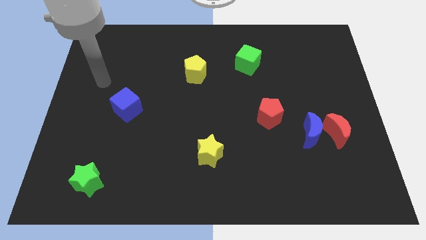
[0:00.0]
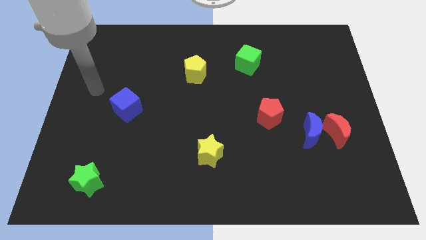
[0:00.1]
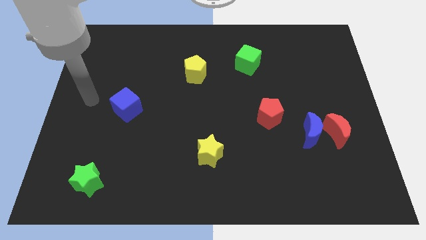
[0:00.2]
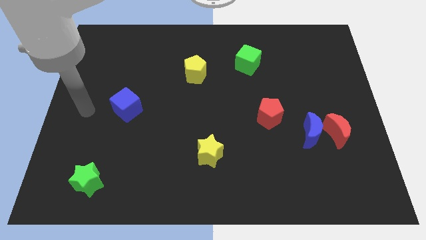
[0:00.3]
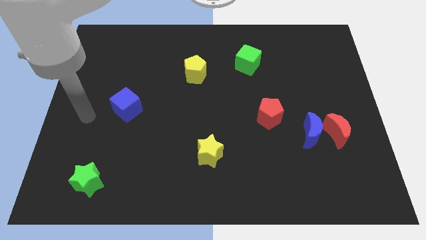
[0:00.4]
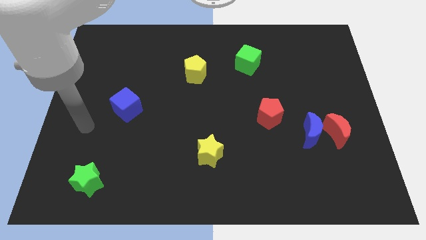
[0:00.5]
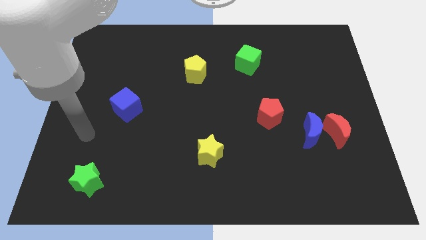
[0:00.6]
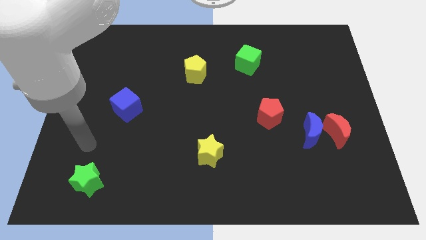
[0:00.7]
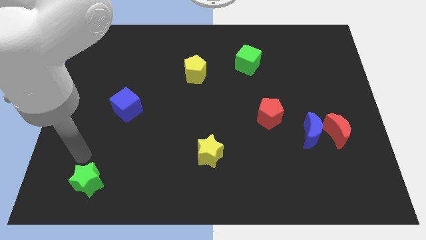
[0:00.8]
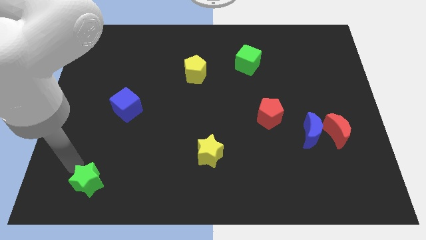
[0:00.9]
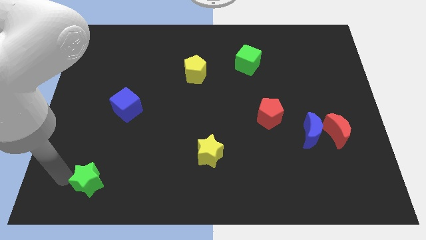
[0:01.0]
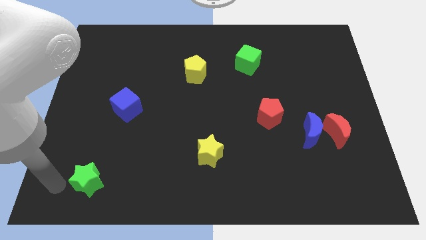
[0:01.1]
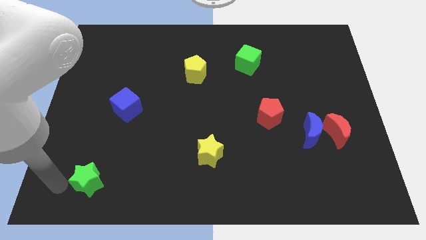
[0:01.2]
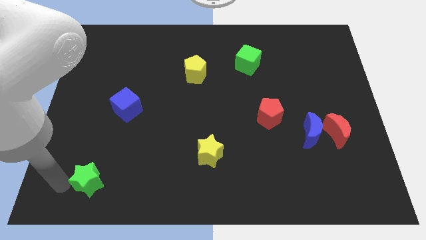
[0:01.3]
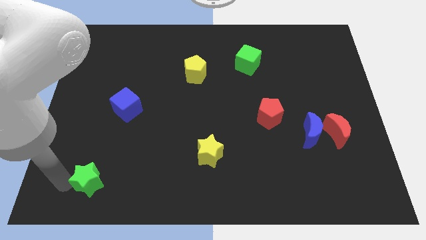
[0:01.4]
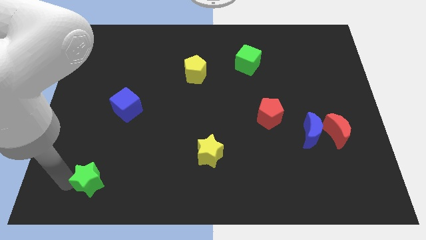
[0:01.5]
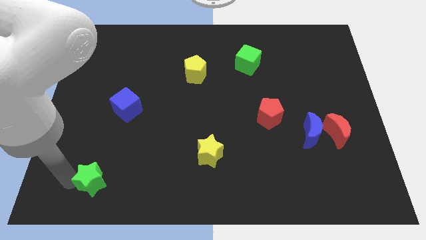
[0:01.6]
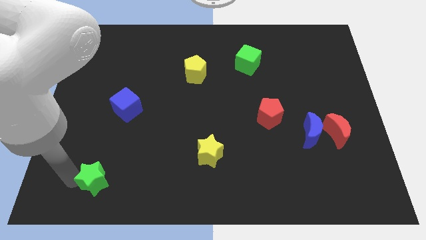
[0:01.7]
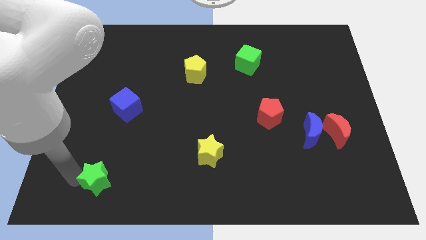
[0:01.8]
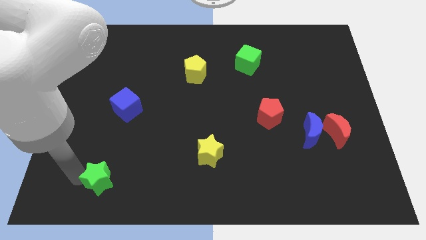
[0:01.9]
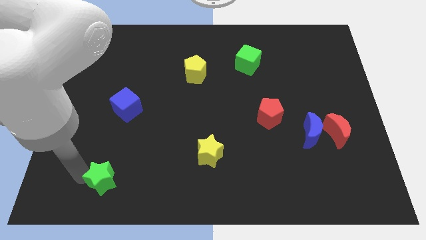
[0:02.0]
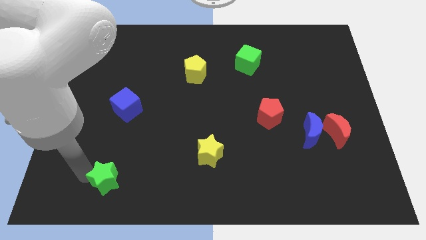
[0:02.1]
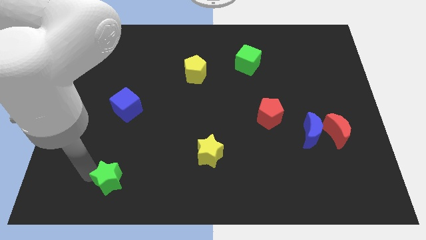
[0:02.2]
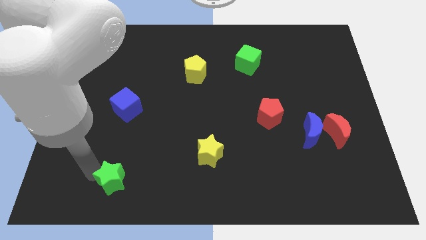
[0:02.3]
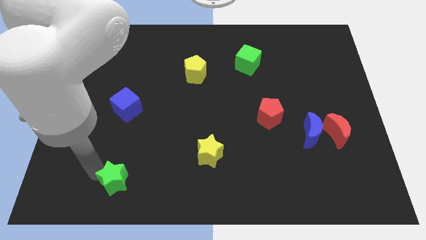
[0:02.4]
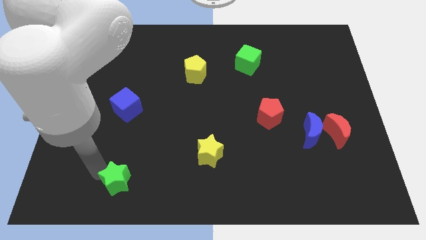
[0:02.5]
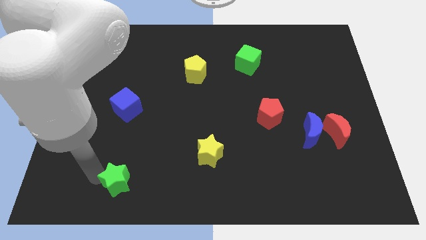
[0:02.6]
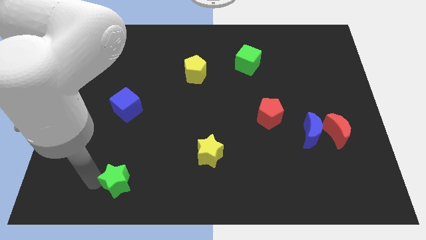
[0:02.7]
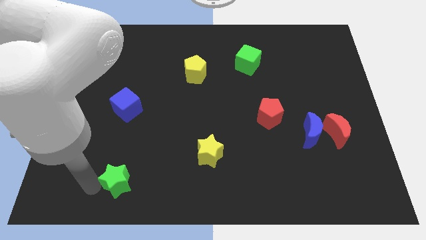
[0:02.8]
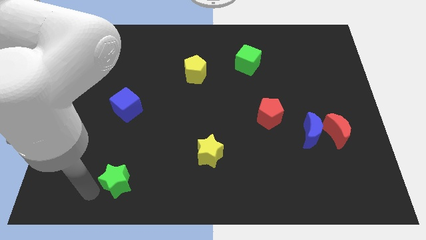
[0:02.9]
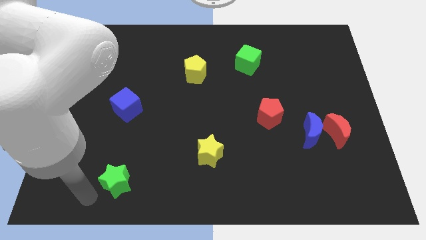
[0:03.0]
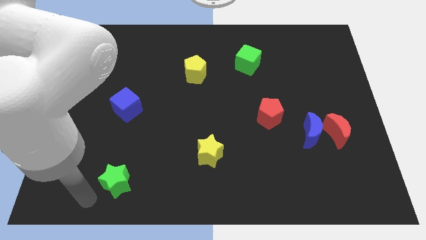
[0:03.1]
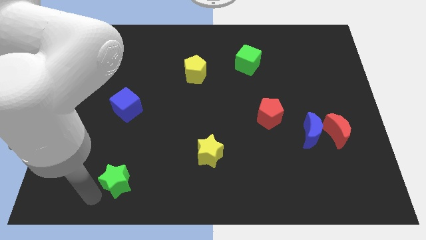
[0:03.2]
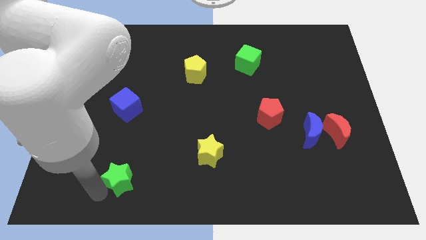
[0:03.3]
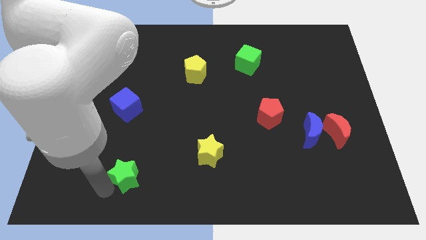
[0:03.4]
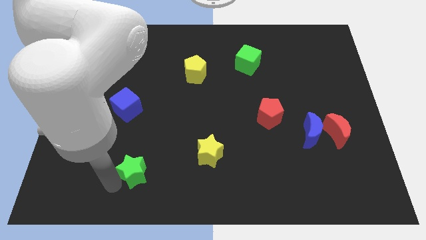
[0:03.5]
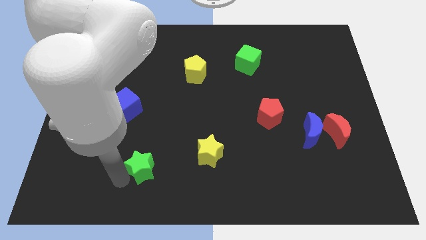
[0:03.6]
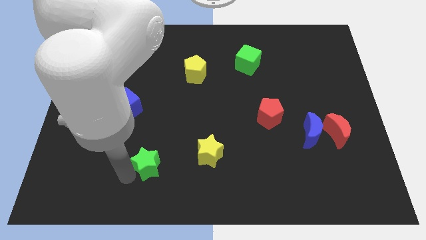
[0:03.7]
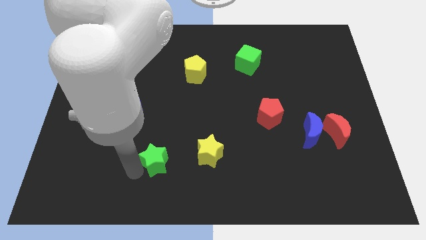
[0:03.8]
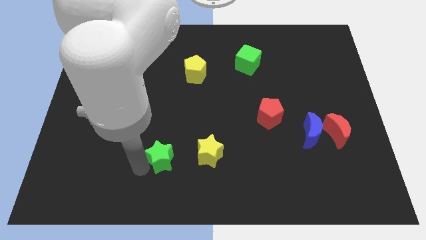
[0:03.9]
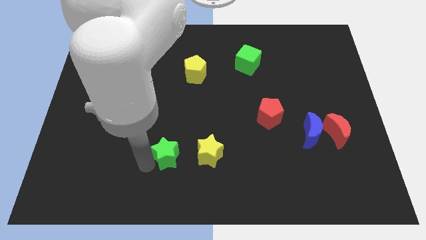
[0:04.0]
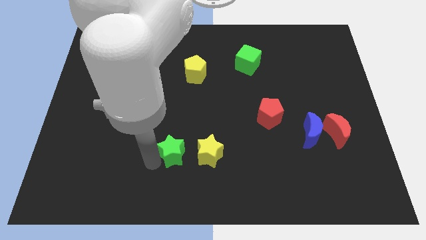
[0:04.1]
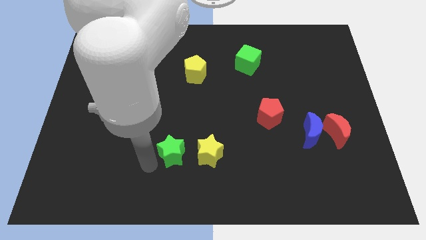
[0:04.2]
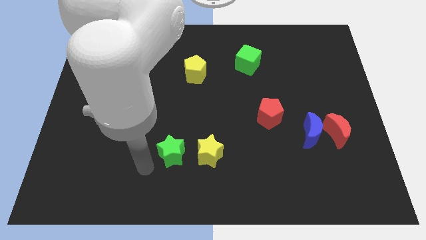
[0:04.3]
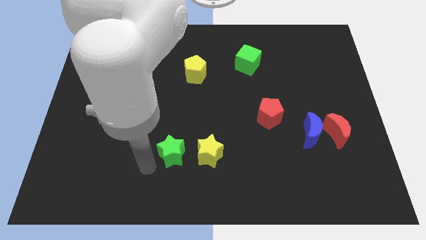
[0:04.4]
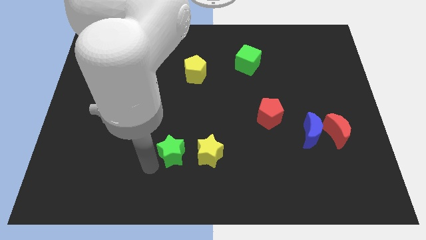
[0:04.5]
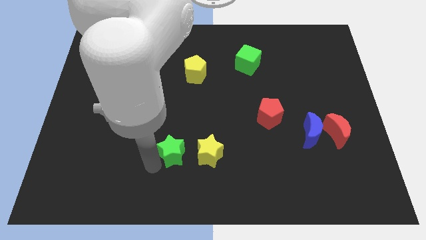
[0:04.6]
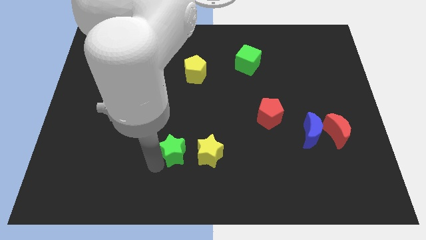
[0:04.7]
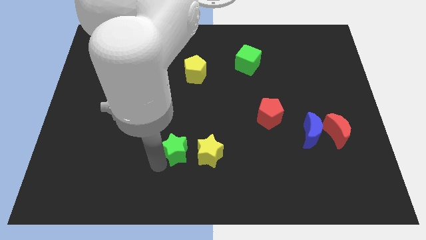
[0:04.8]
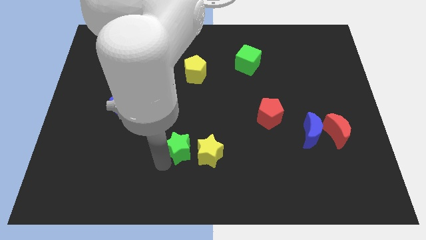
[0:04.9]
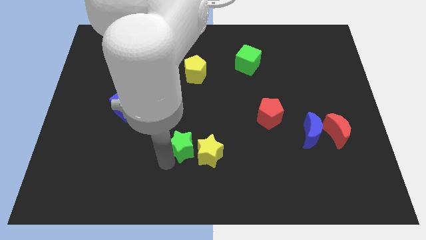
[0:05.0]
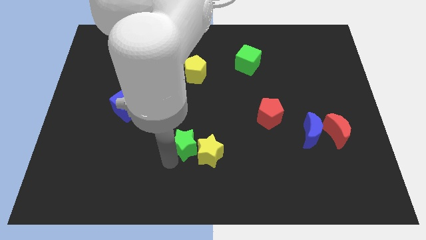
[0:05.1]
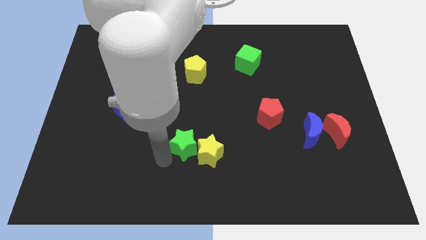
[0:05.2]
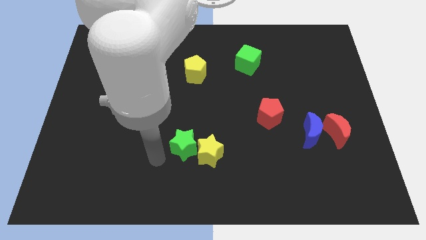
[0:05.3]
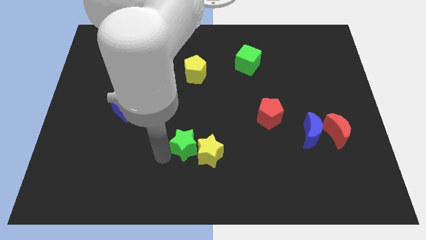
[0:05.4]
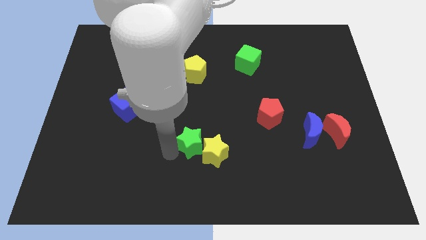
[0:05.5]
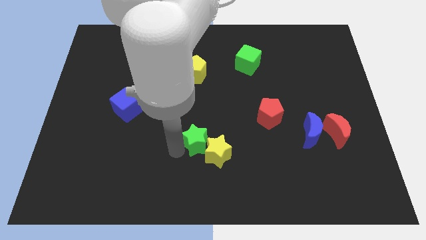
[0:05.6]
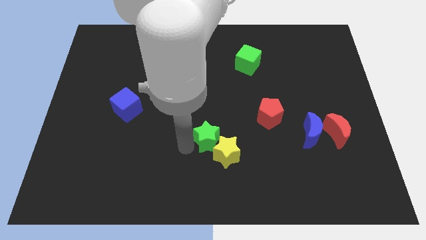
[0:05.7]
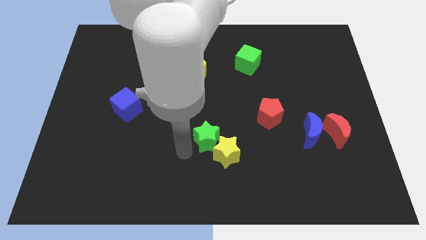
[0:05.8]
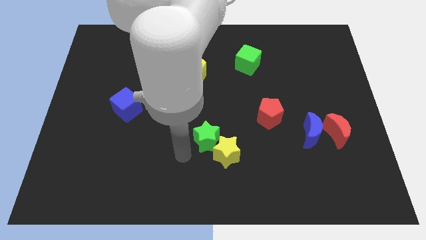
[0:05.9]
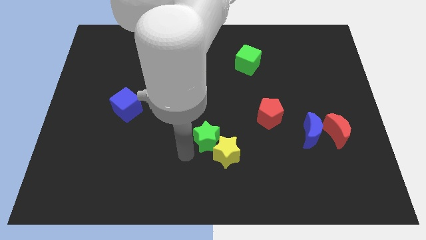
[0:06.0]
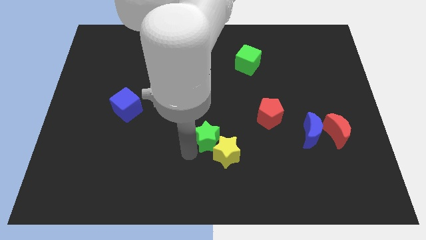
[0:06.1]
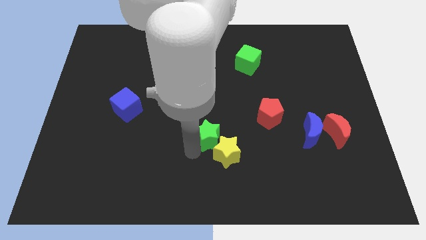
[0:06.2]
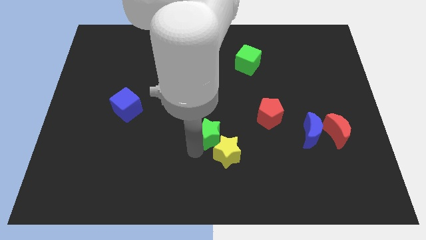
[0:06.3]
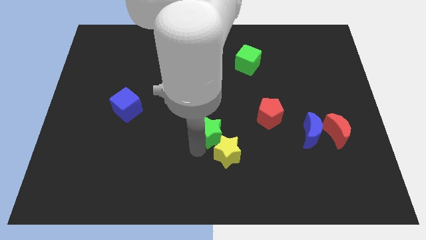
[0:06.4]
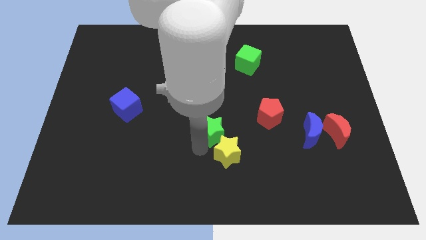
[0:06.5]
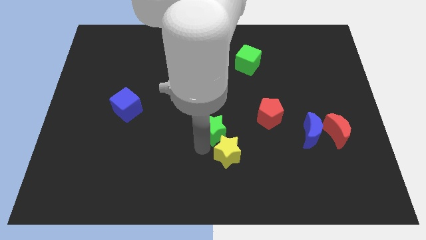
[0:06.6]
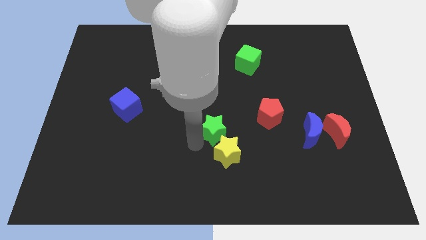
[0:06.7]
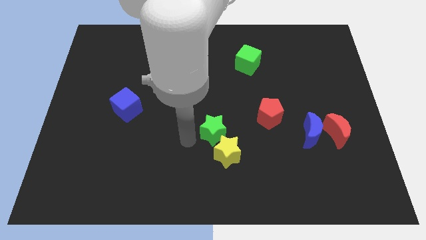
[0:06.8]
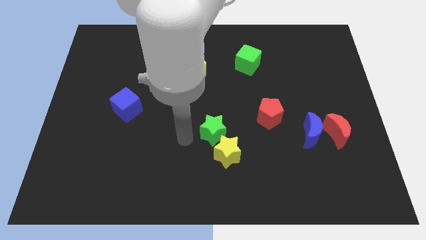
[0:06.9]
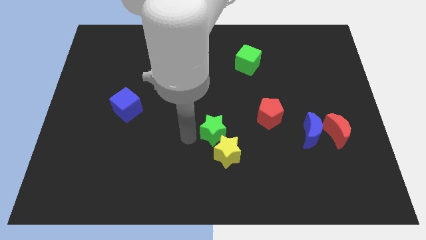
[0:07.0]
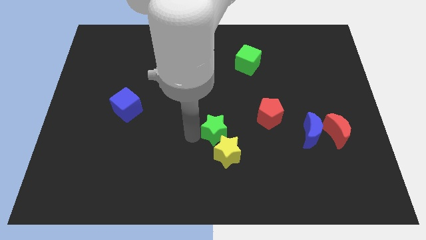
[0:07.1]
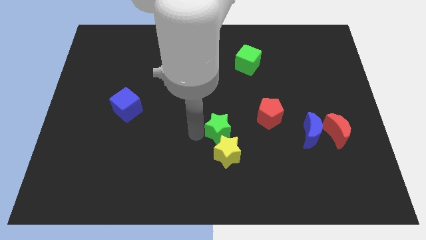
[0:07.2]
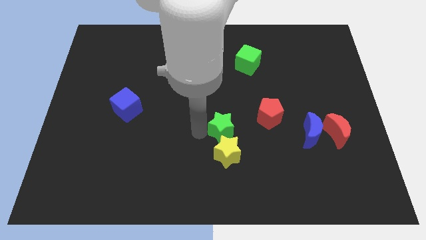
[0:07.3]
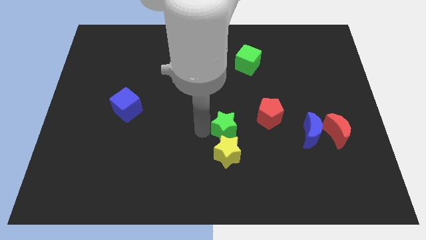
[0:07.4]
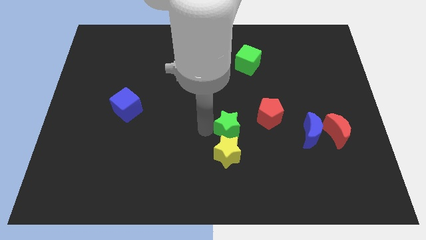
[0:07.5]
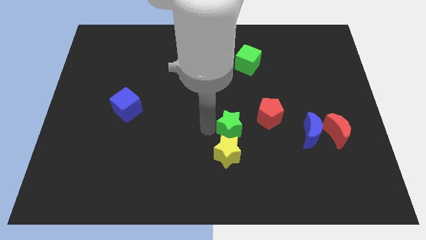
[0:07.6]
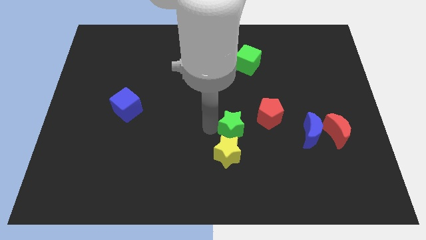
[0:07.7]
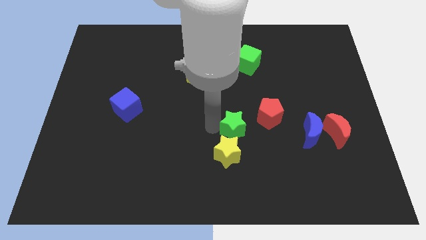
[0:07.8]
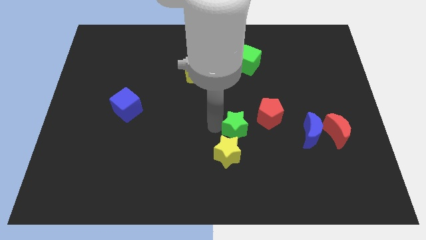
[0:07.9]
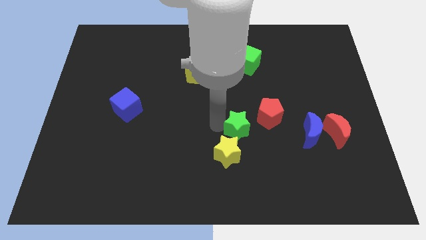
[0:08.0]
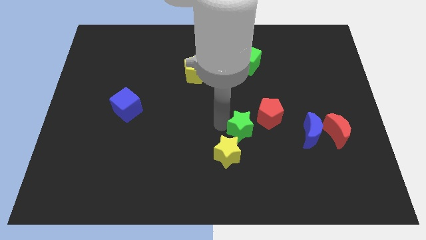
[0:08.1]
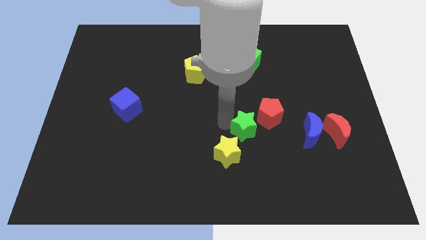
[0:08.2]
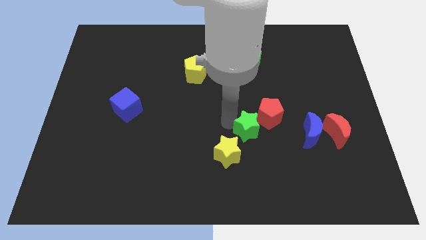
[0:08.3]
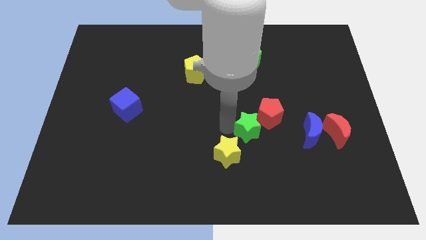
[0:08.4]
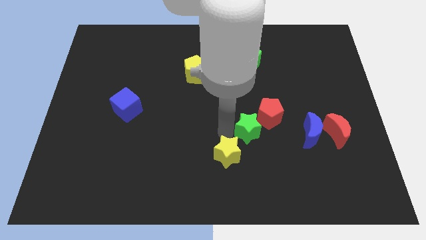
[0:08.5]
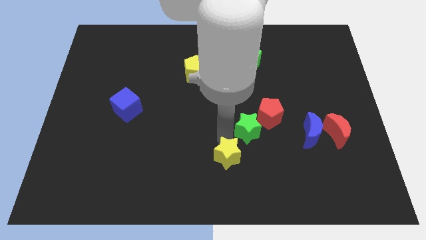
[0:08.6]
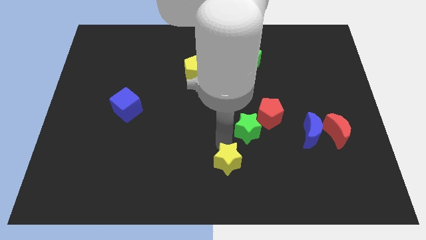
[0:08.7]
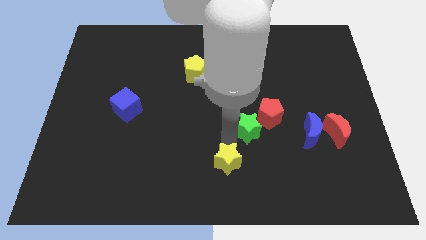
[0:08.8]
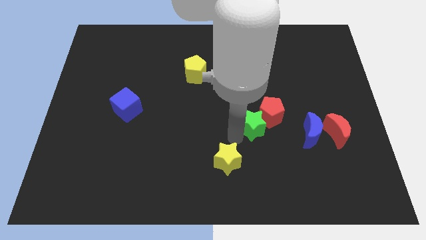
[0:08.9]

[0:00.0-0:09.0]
slide the green star towards the red pentagon
